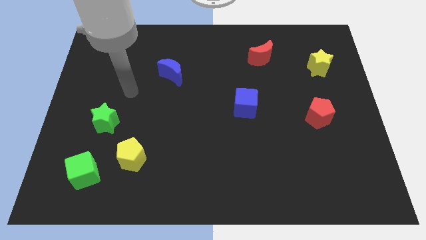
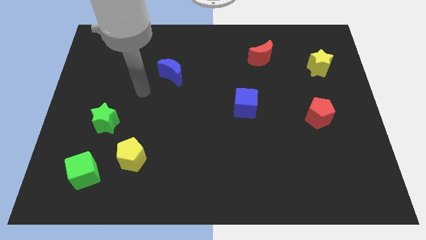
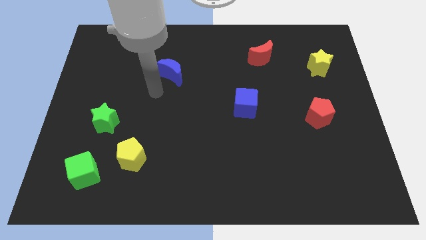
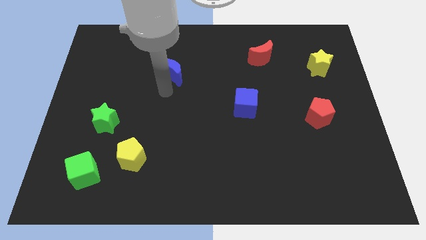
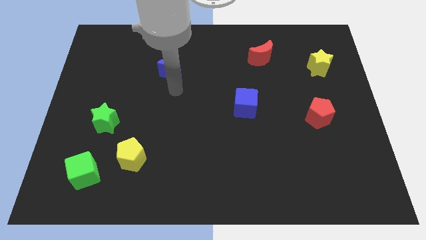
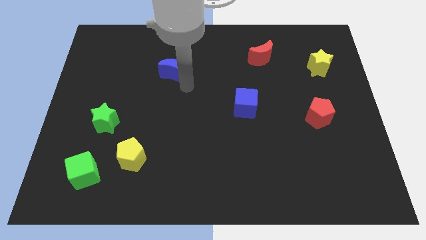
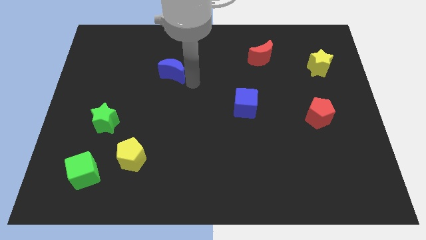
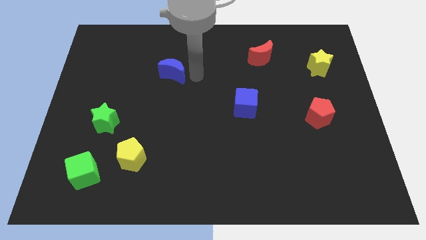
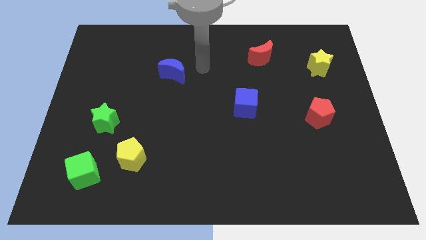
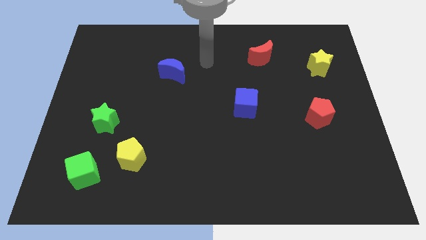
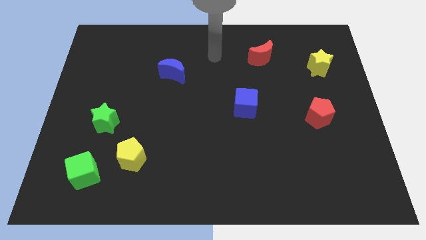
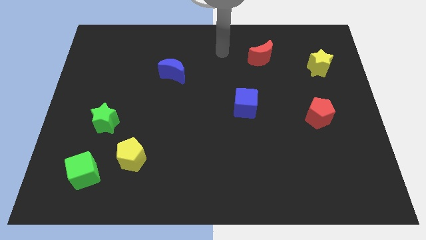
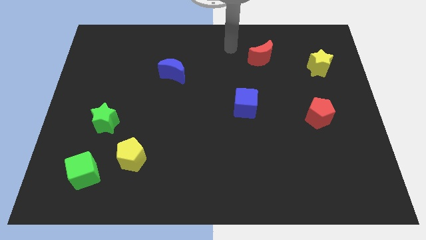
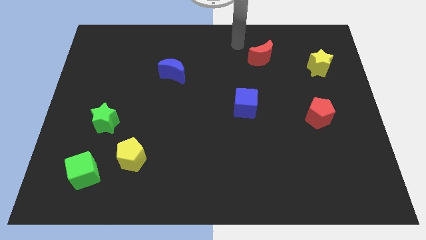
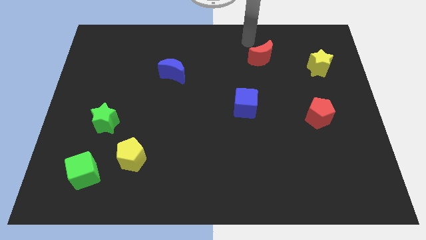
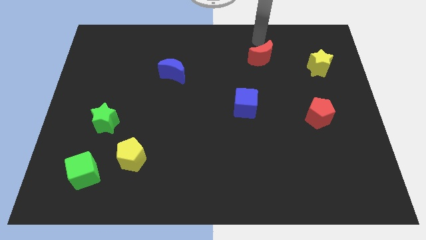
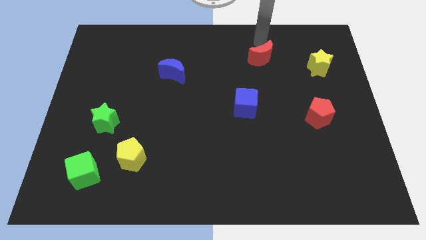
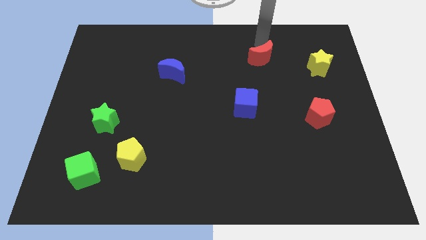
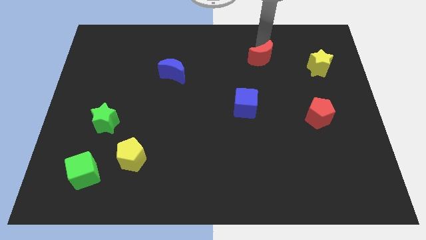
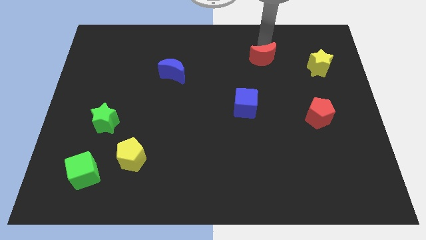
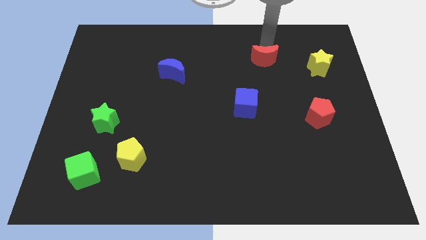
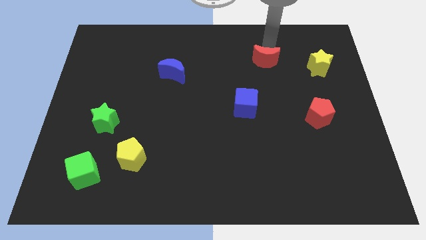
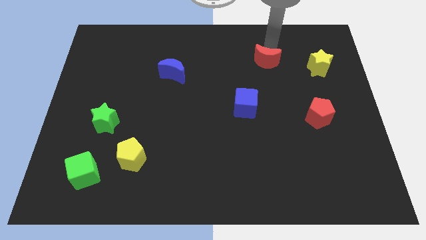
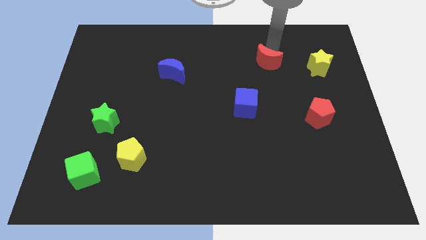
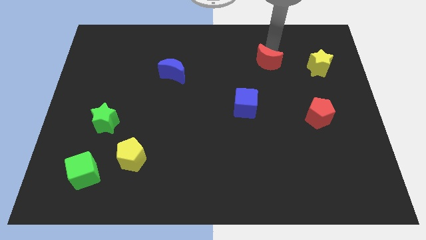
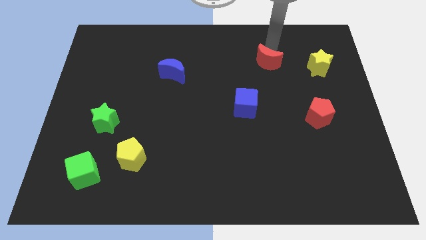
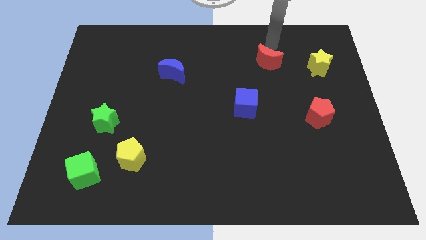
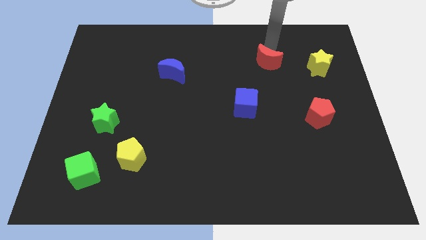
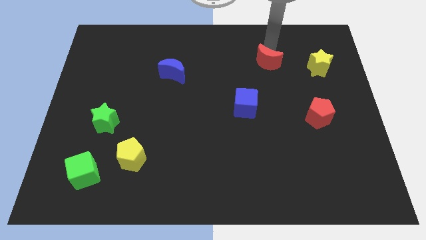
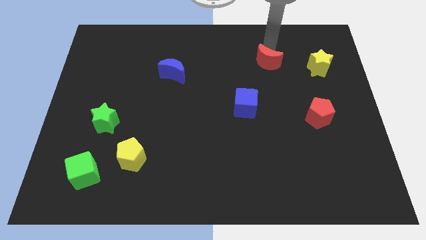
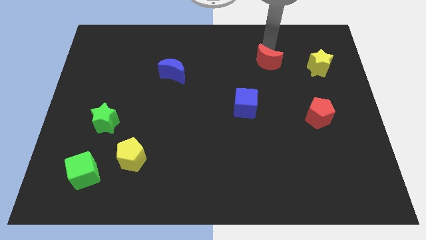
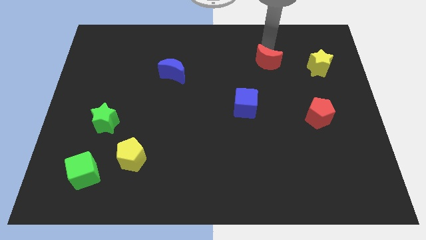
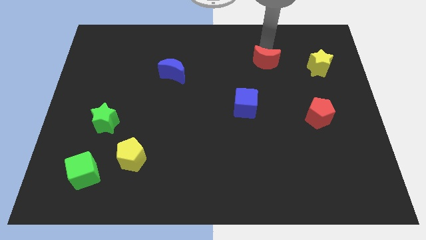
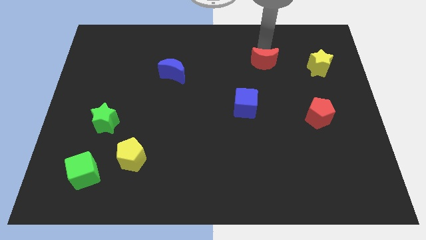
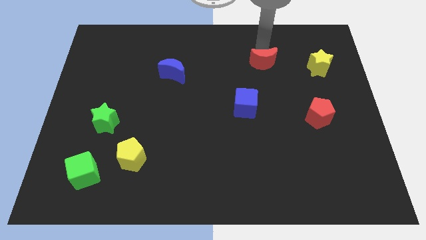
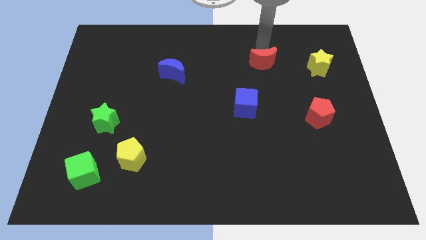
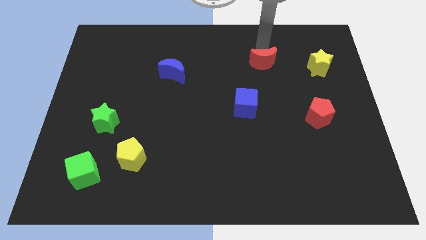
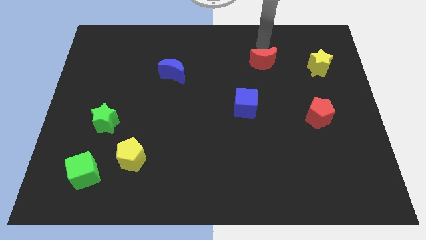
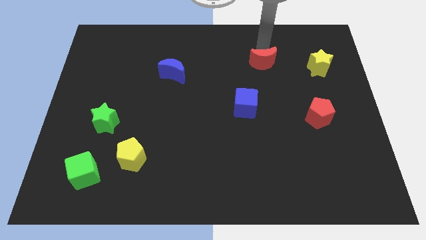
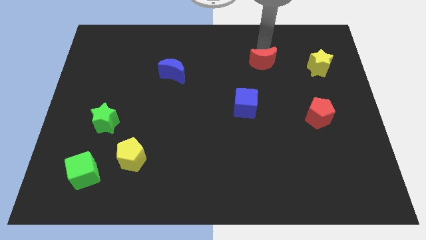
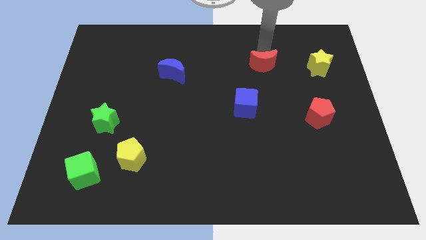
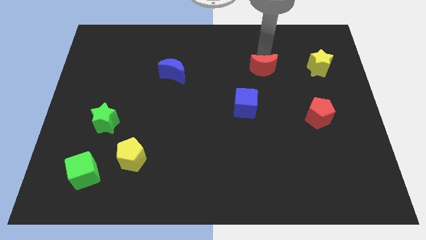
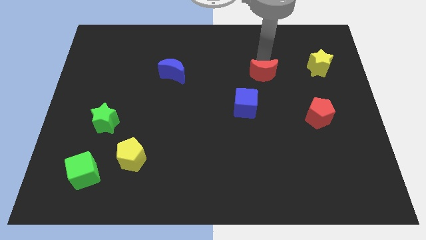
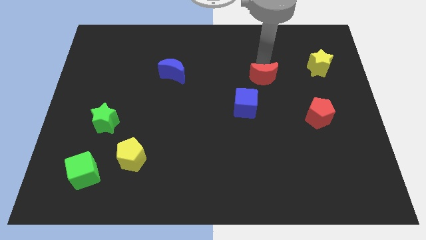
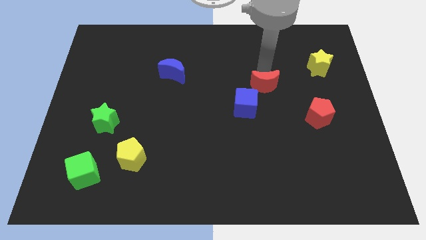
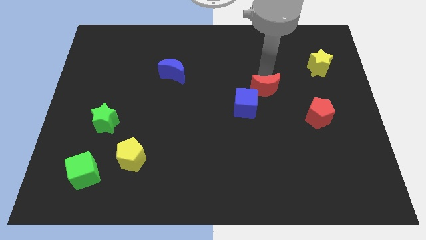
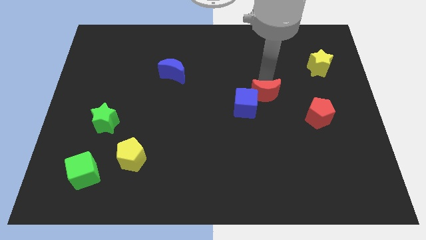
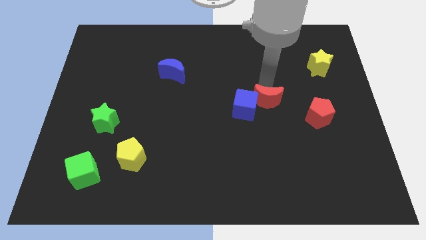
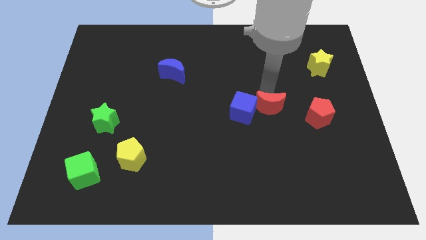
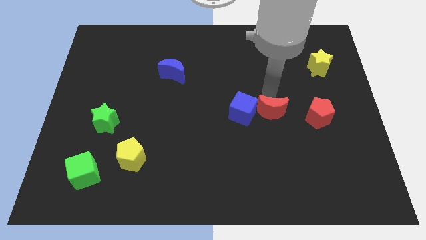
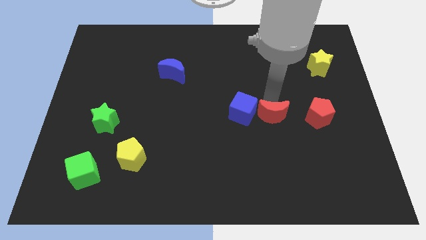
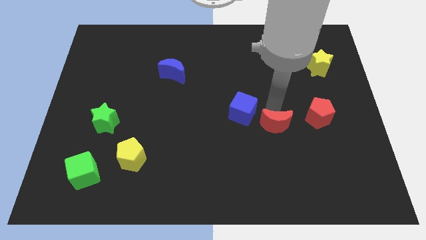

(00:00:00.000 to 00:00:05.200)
push the red moon downwards

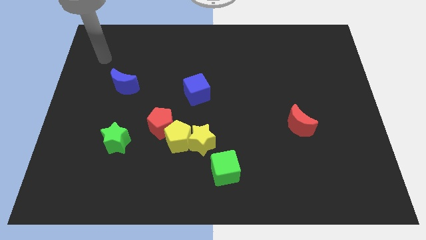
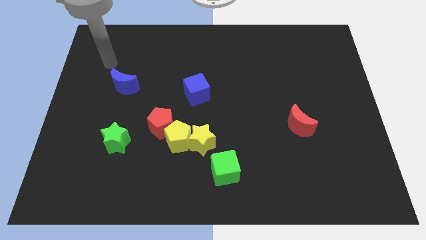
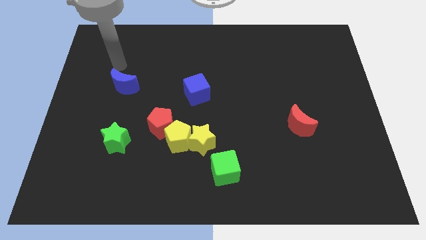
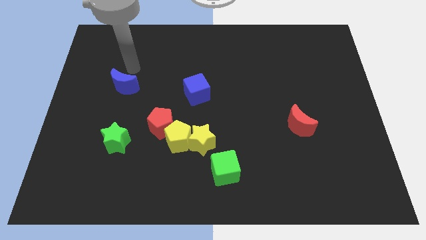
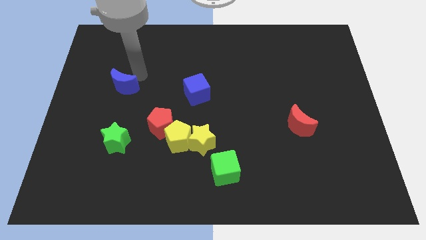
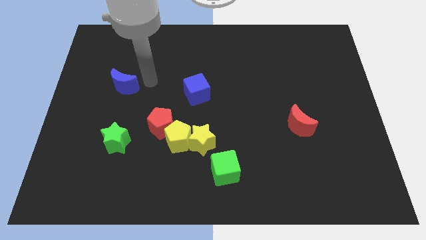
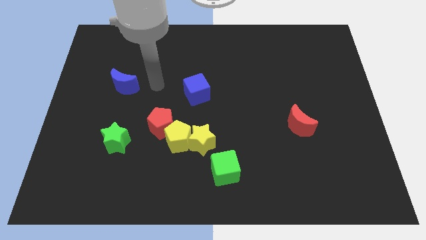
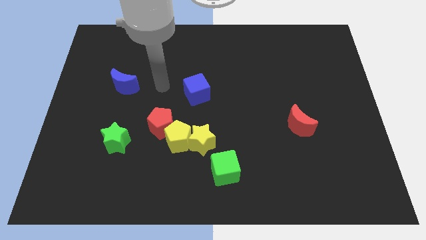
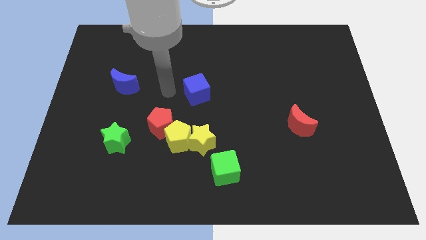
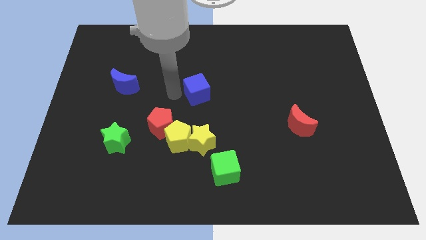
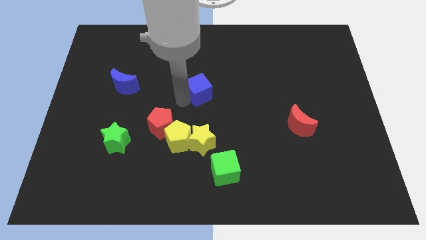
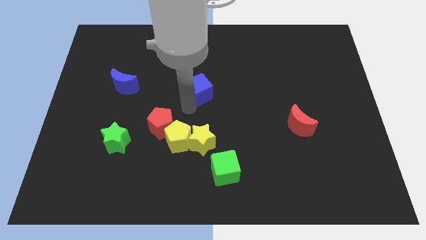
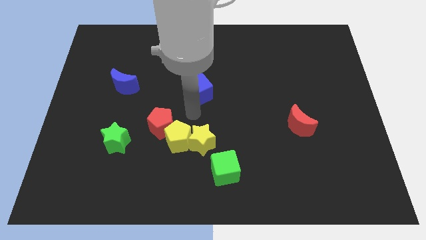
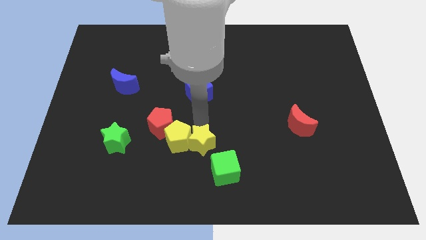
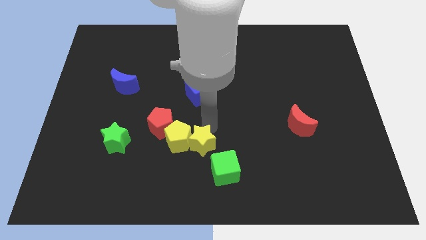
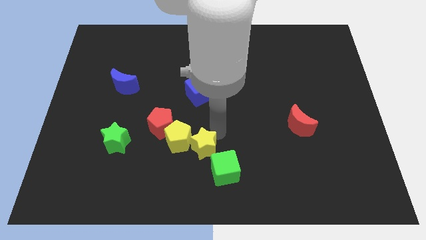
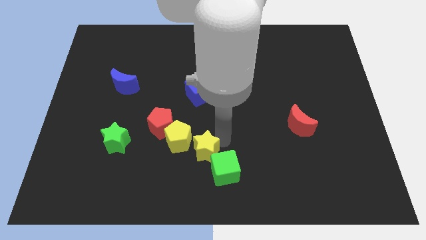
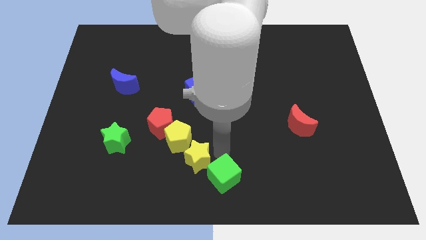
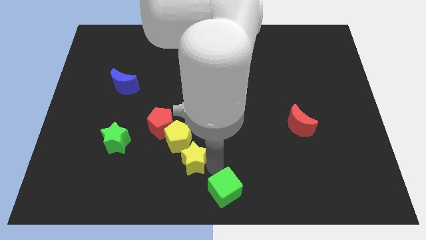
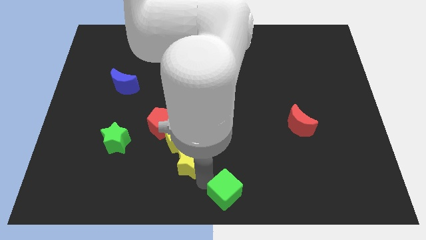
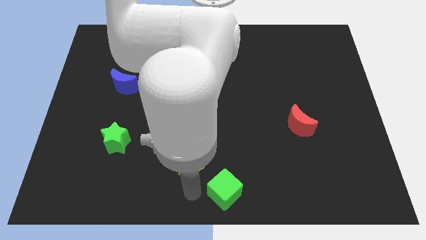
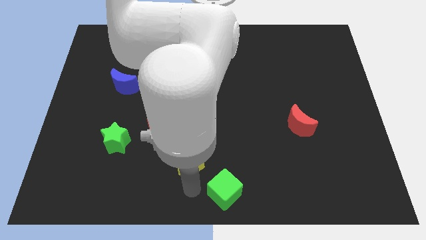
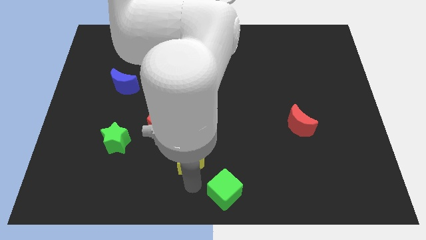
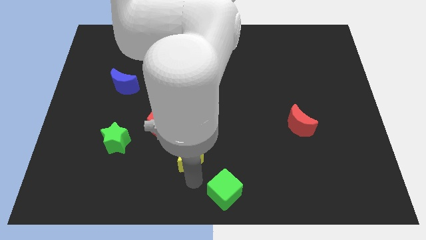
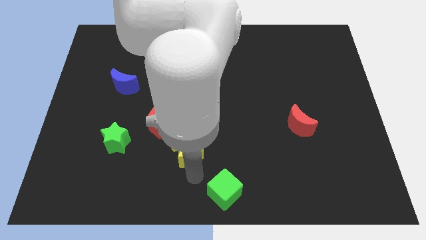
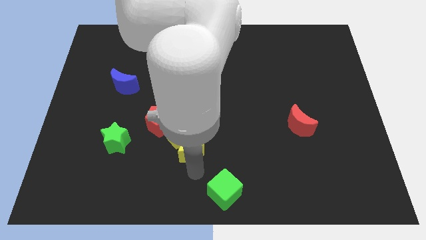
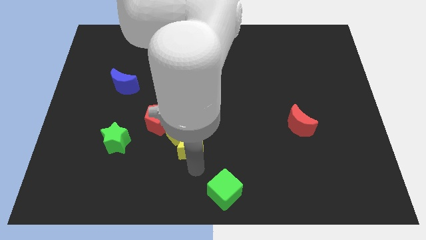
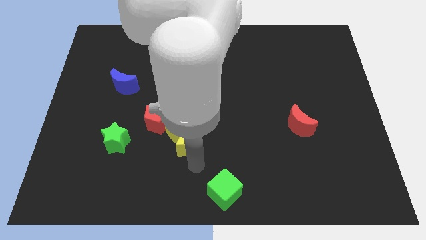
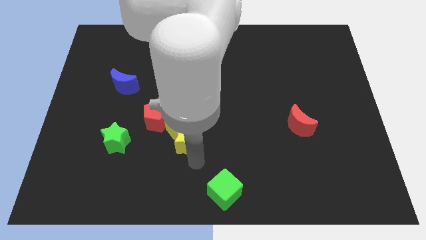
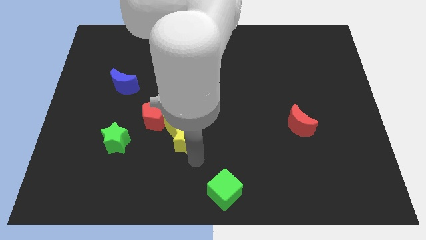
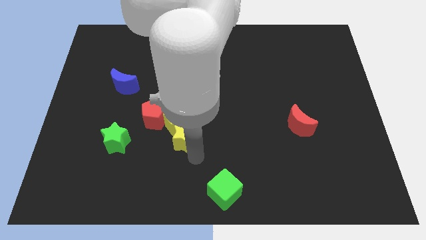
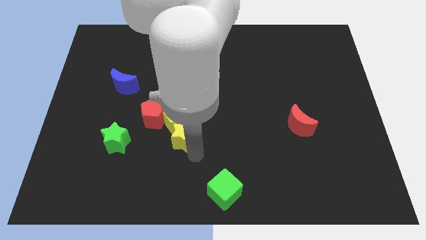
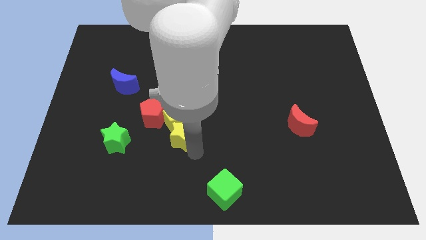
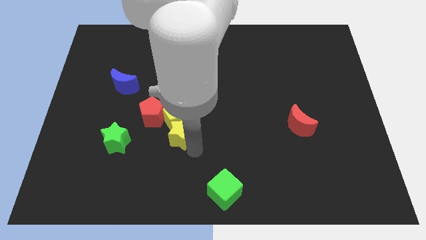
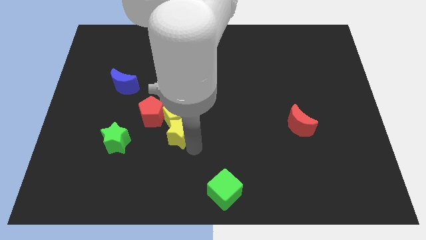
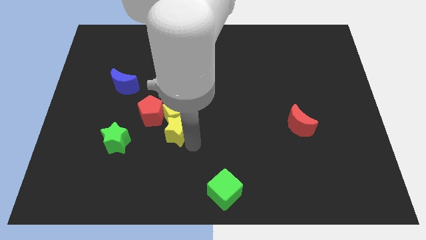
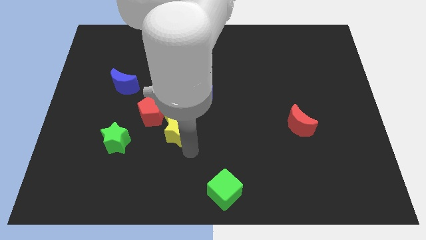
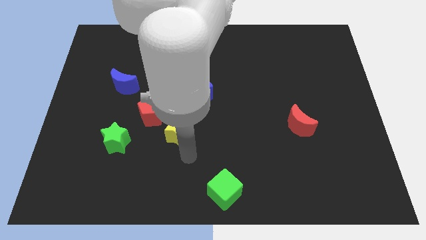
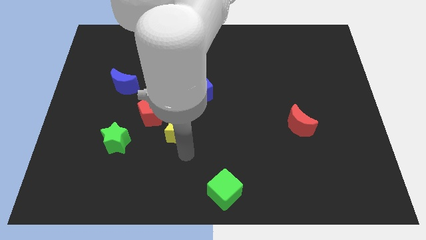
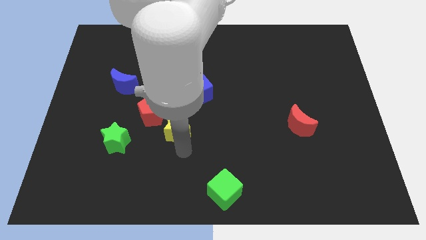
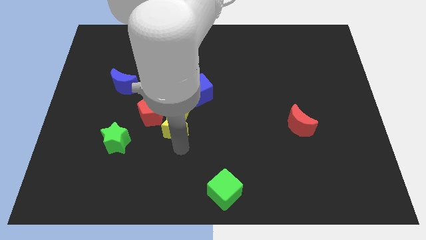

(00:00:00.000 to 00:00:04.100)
slide the yellow star a little bit upwards and left diagonally
